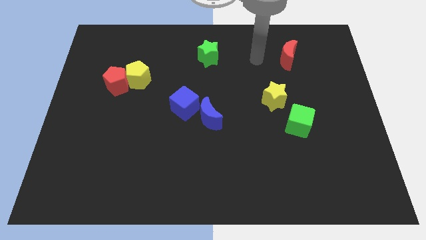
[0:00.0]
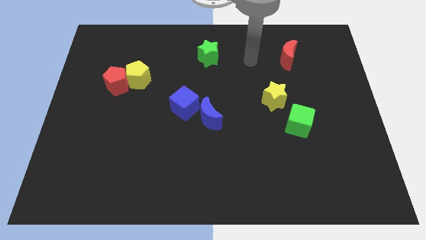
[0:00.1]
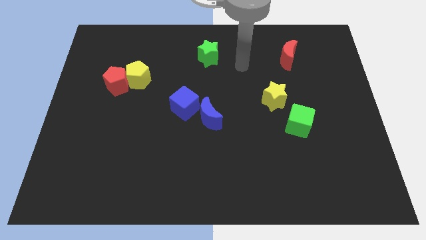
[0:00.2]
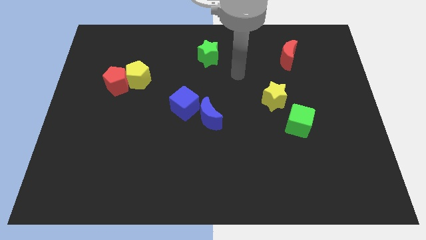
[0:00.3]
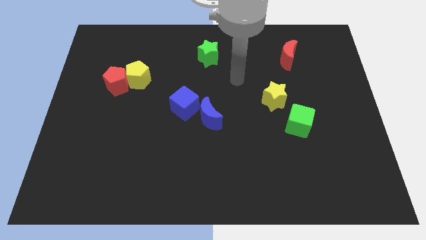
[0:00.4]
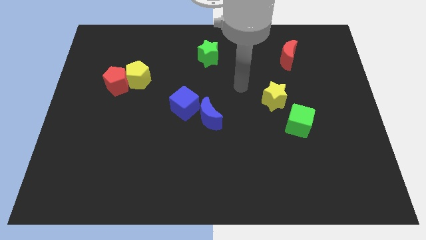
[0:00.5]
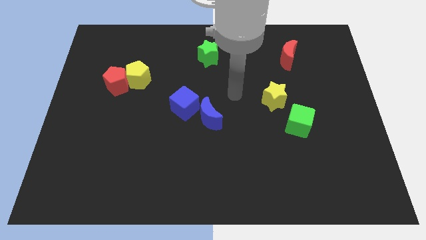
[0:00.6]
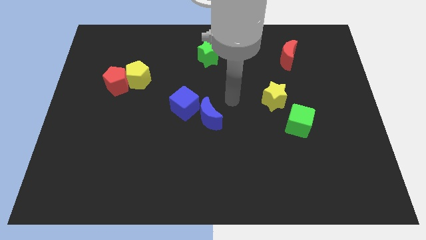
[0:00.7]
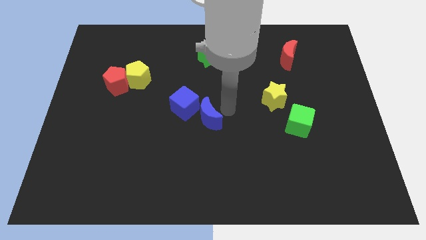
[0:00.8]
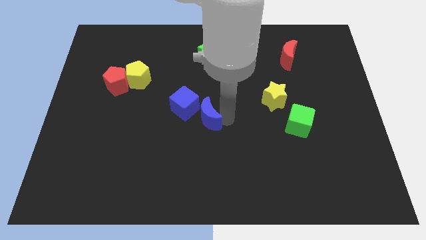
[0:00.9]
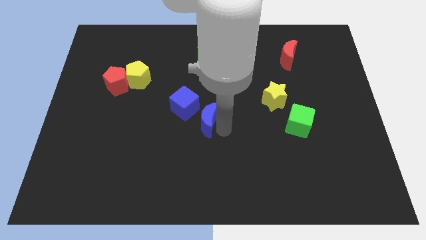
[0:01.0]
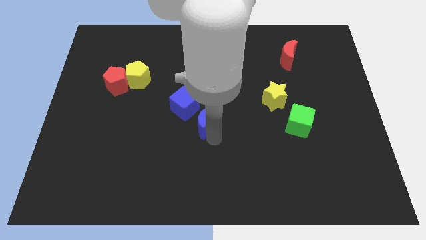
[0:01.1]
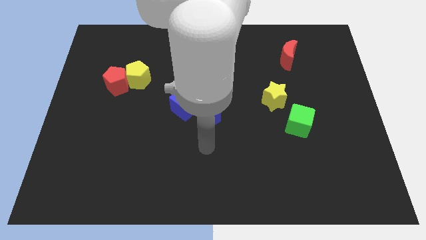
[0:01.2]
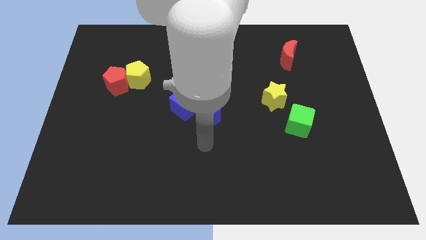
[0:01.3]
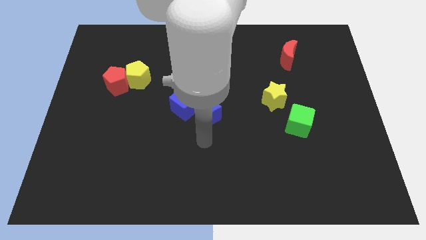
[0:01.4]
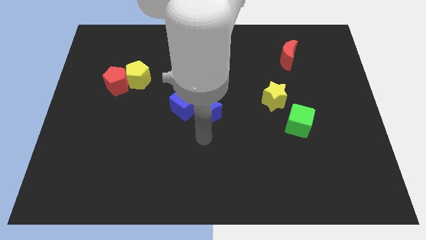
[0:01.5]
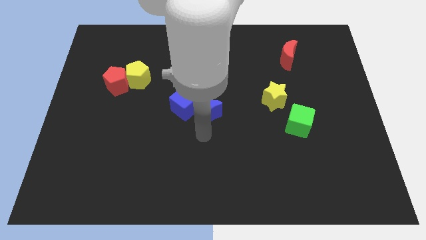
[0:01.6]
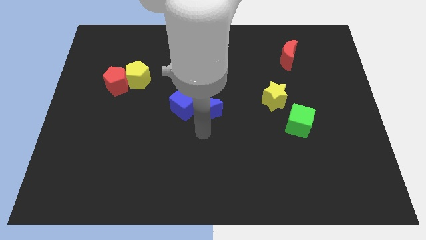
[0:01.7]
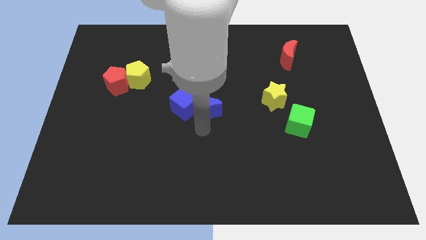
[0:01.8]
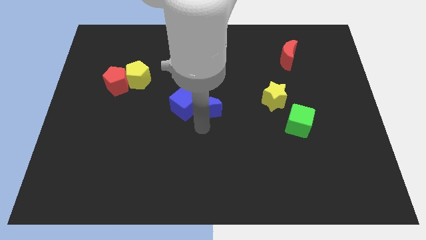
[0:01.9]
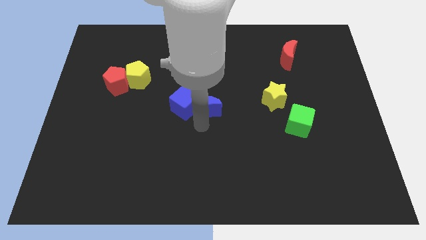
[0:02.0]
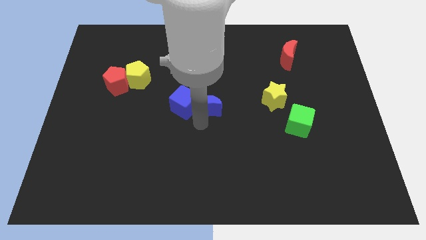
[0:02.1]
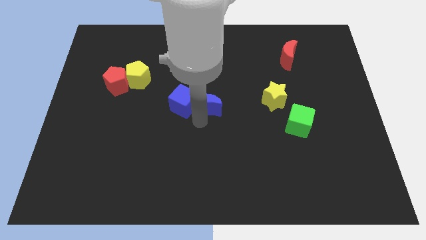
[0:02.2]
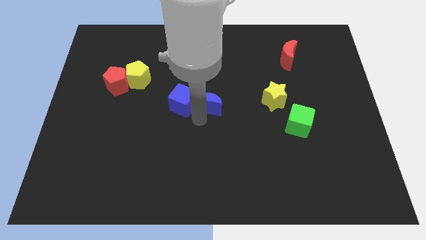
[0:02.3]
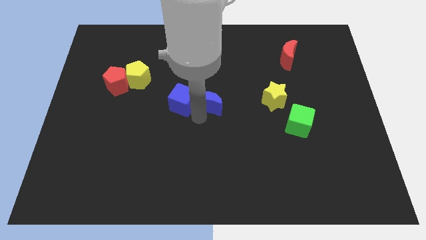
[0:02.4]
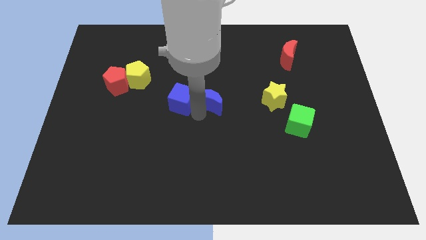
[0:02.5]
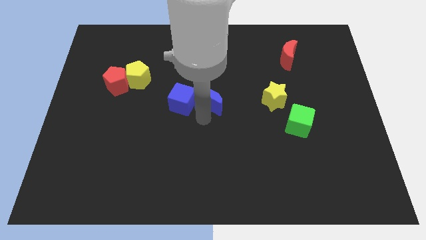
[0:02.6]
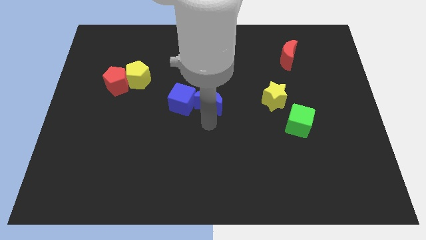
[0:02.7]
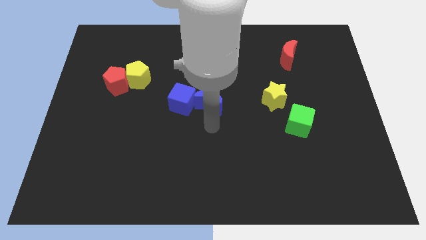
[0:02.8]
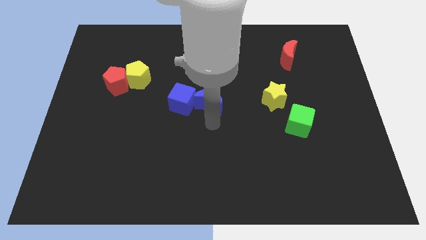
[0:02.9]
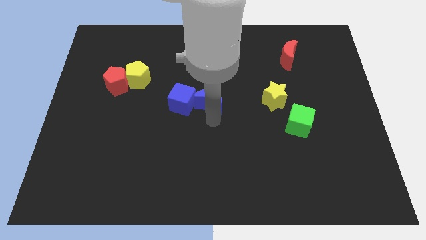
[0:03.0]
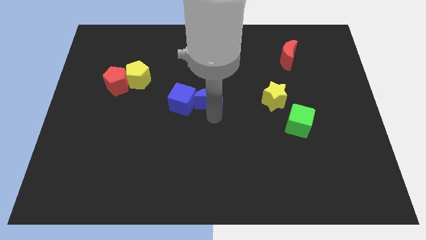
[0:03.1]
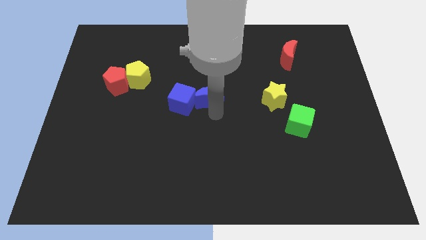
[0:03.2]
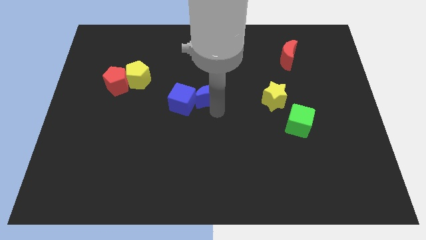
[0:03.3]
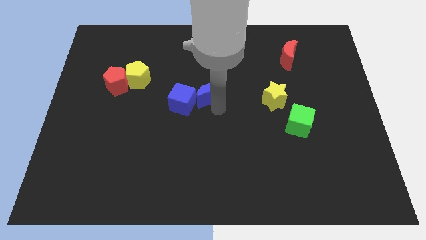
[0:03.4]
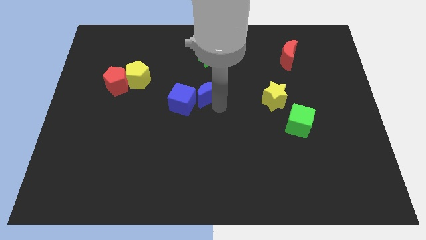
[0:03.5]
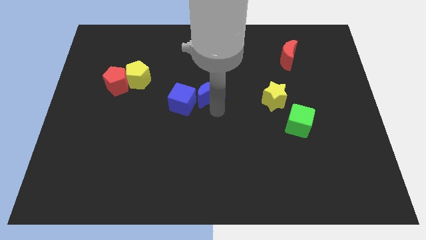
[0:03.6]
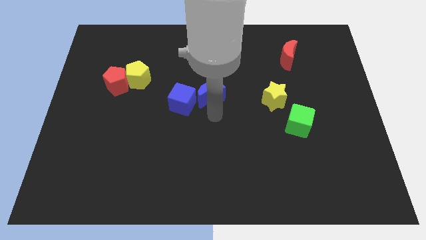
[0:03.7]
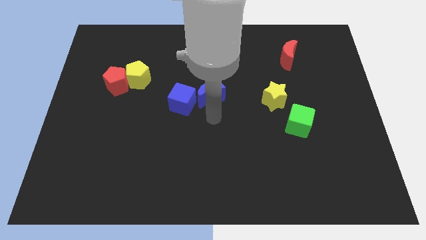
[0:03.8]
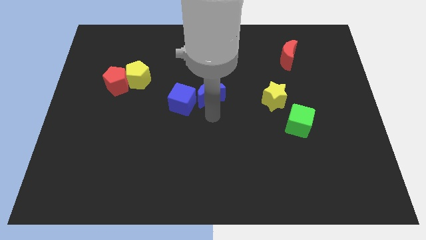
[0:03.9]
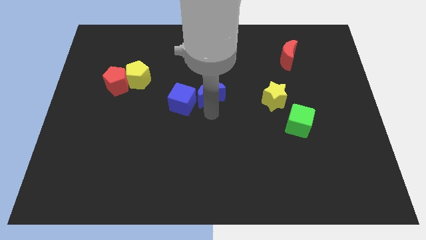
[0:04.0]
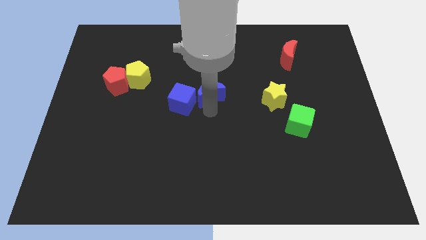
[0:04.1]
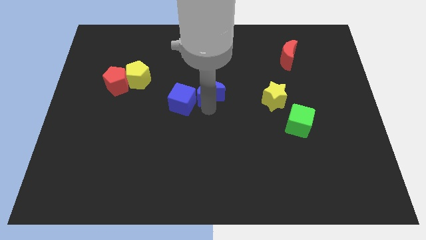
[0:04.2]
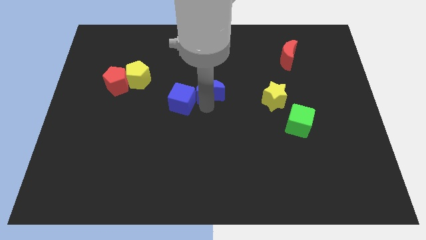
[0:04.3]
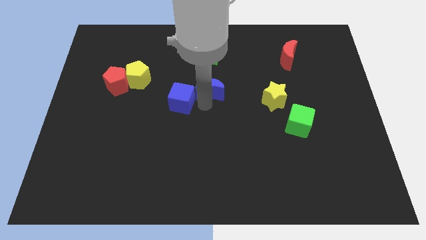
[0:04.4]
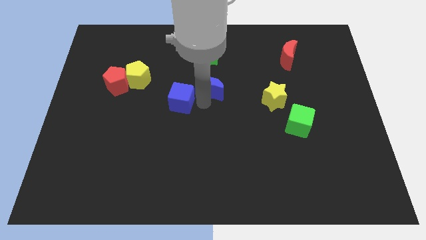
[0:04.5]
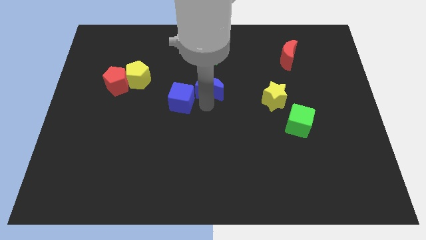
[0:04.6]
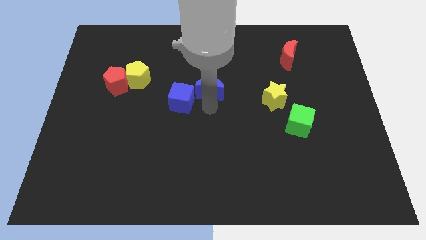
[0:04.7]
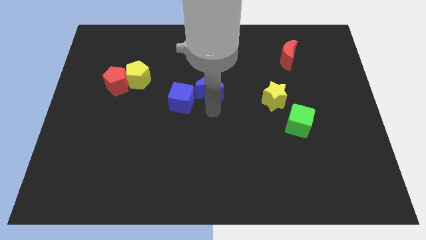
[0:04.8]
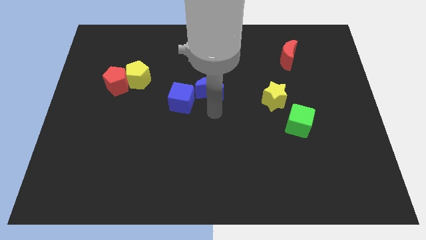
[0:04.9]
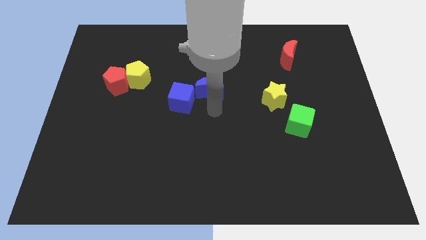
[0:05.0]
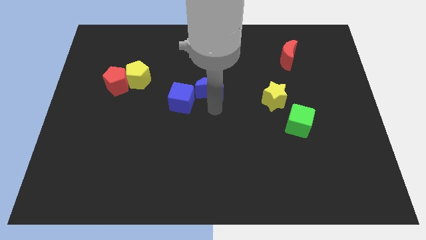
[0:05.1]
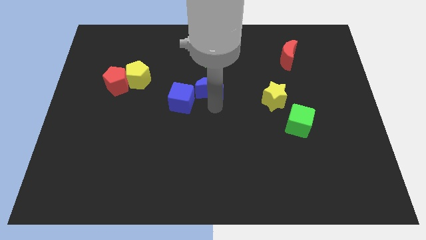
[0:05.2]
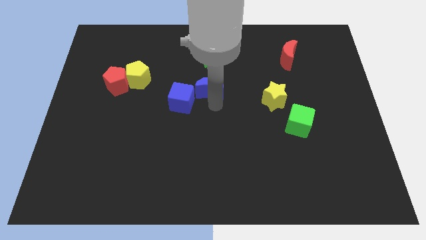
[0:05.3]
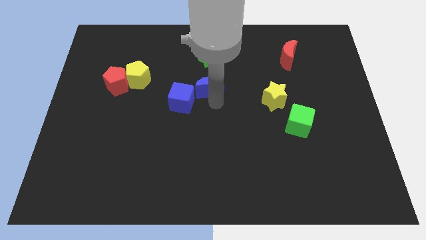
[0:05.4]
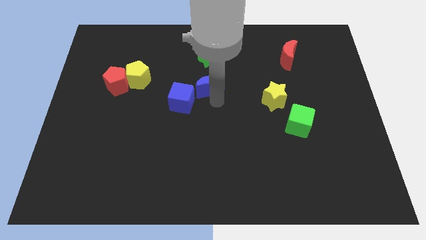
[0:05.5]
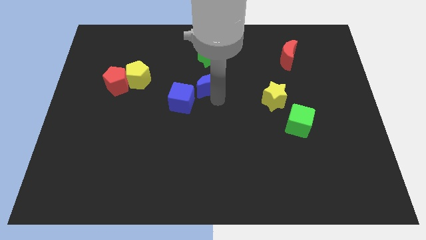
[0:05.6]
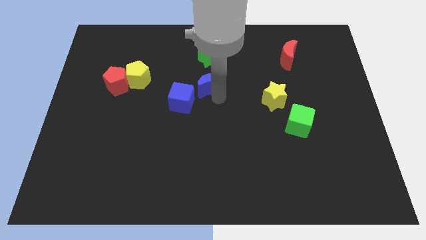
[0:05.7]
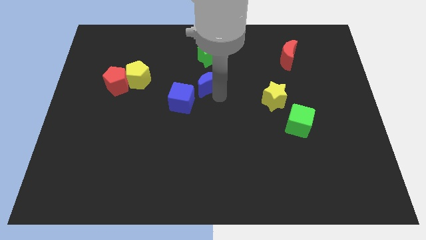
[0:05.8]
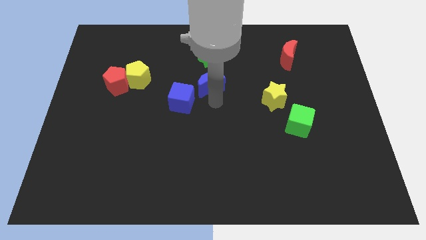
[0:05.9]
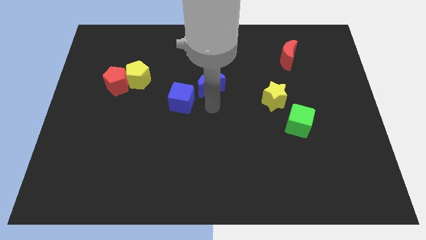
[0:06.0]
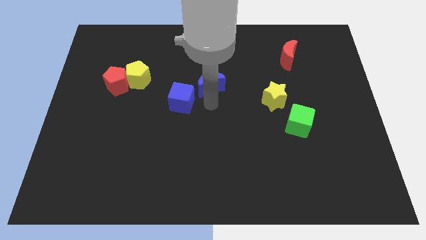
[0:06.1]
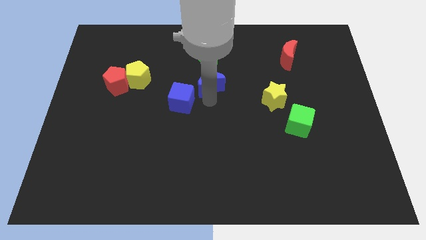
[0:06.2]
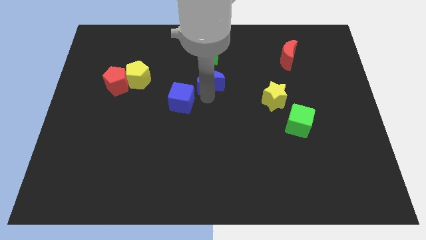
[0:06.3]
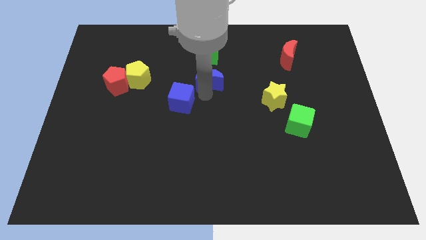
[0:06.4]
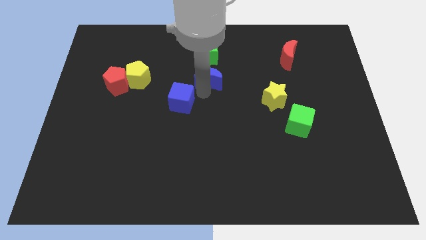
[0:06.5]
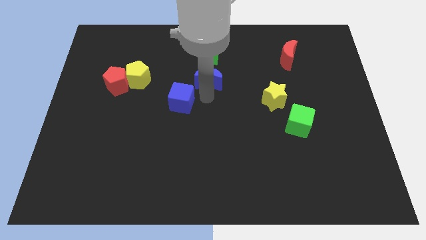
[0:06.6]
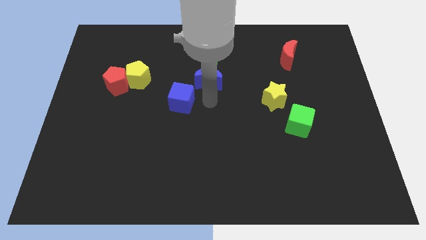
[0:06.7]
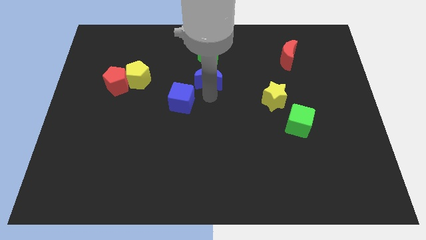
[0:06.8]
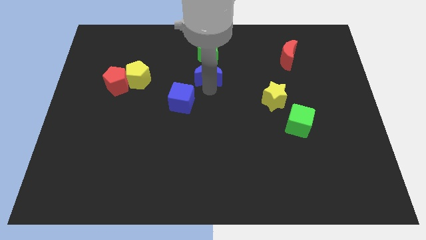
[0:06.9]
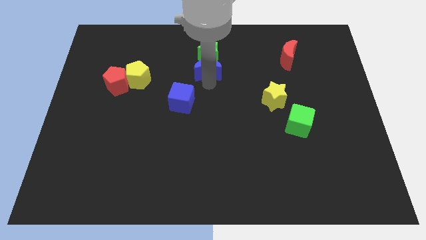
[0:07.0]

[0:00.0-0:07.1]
put the blue moon to the green star

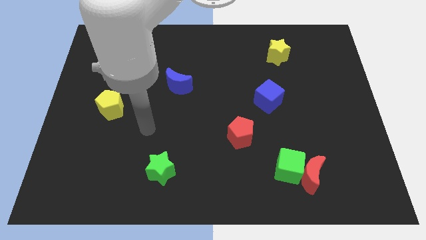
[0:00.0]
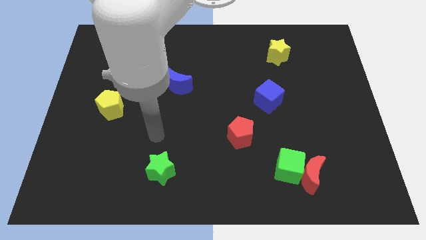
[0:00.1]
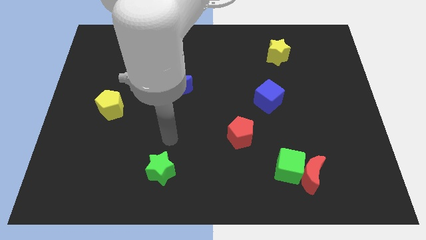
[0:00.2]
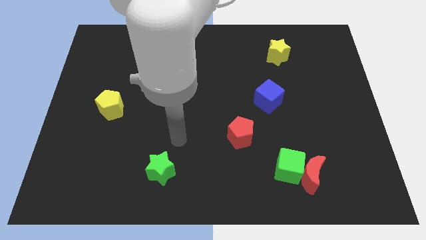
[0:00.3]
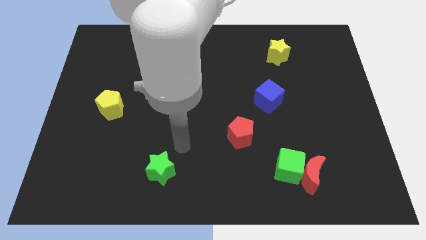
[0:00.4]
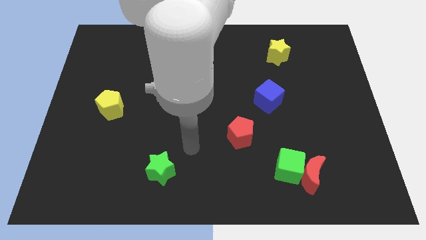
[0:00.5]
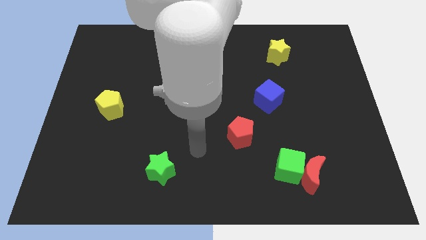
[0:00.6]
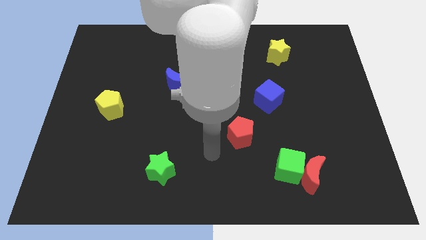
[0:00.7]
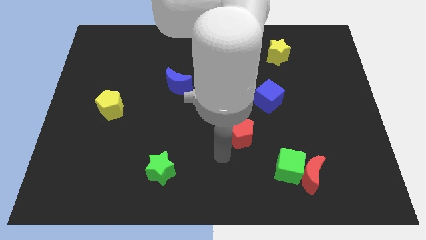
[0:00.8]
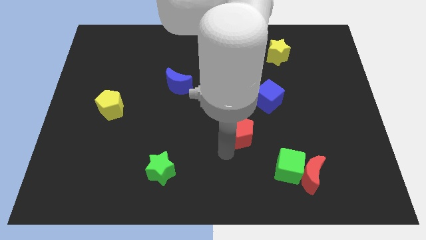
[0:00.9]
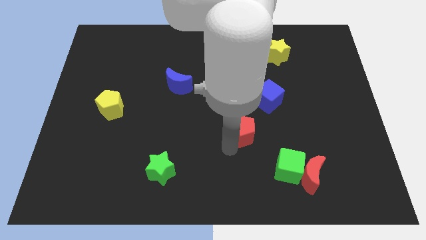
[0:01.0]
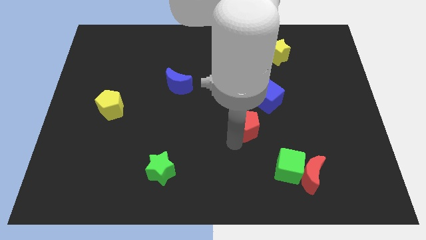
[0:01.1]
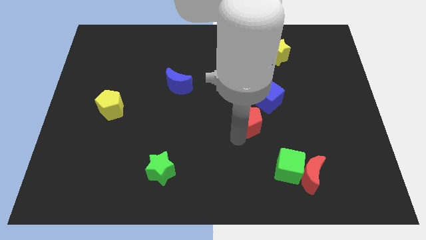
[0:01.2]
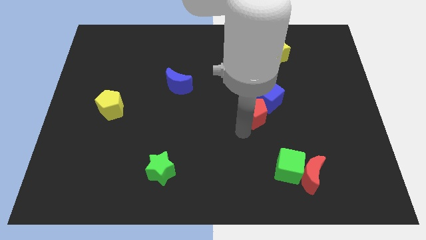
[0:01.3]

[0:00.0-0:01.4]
put the red pentagon towards the blue cube
